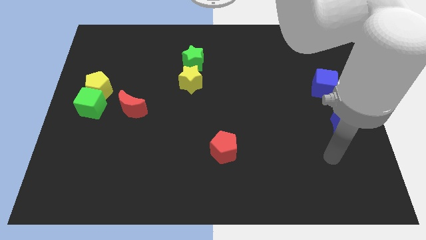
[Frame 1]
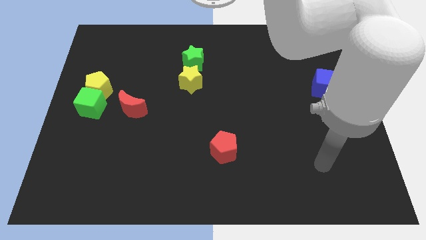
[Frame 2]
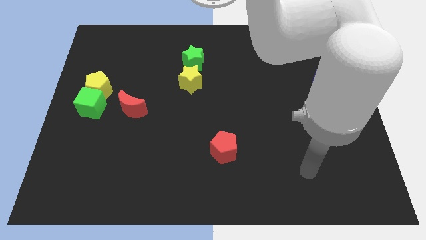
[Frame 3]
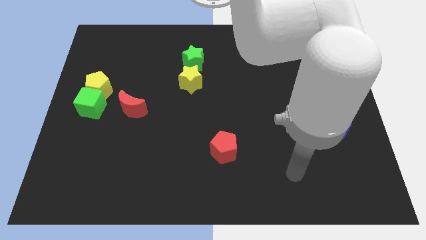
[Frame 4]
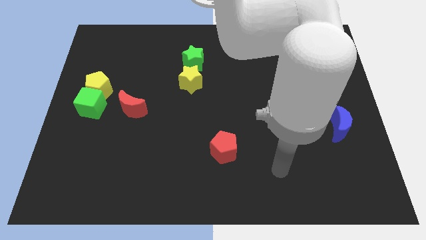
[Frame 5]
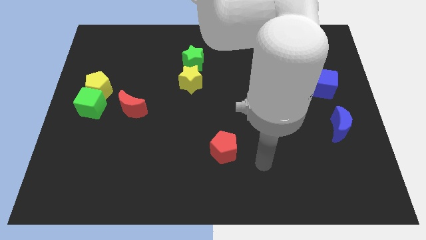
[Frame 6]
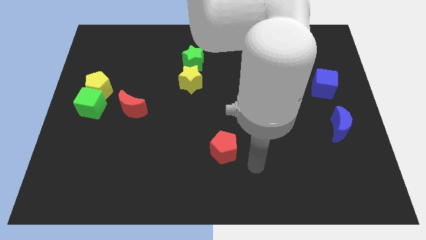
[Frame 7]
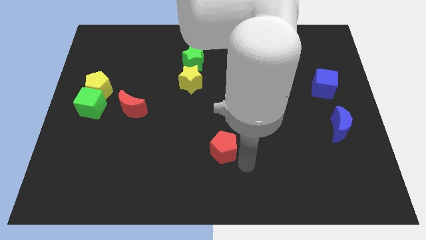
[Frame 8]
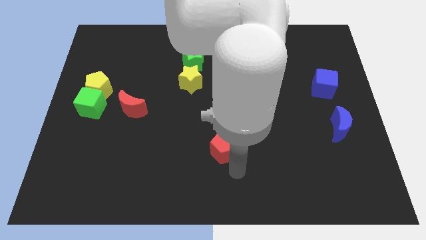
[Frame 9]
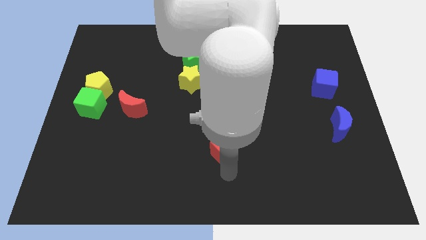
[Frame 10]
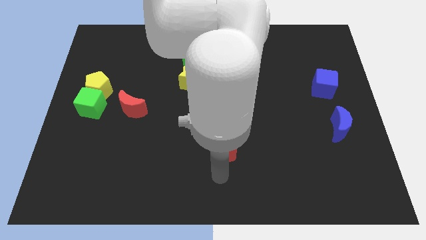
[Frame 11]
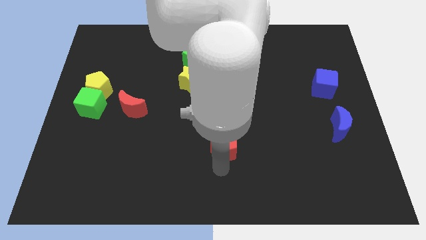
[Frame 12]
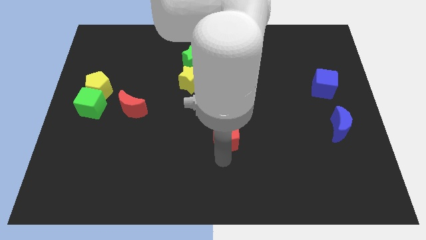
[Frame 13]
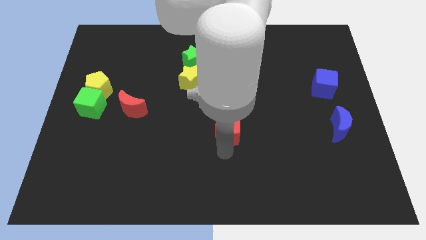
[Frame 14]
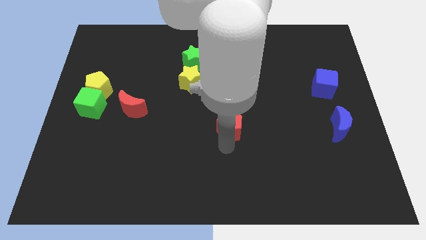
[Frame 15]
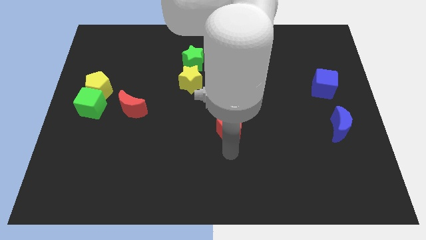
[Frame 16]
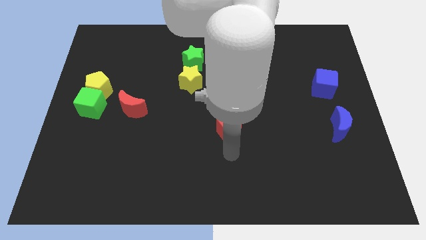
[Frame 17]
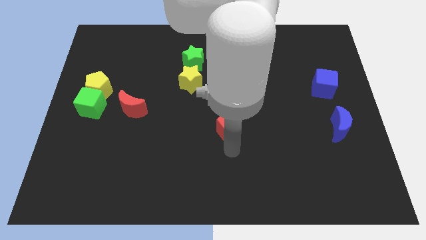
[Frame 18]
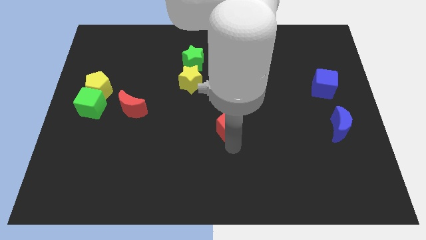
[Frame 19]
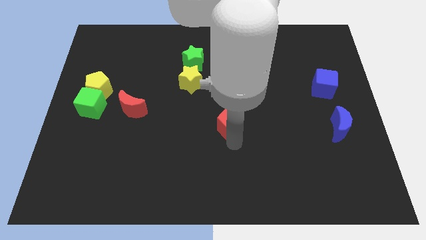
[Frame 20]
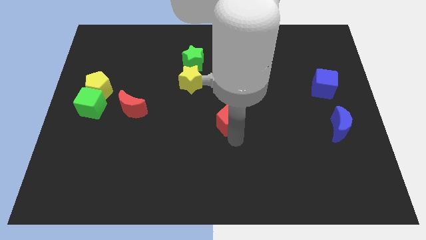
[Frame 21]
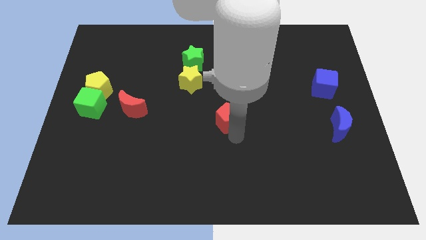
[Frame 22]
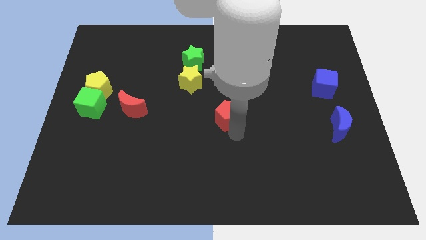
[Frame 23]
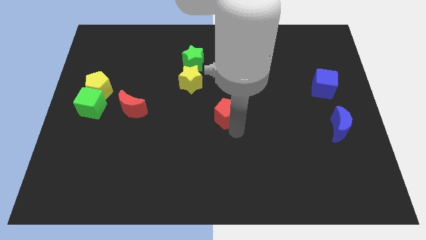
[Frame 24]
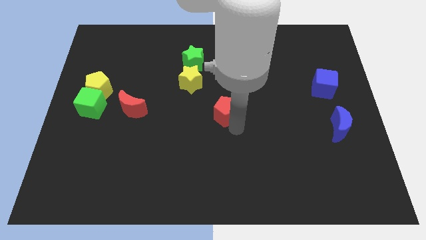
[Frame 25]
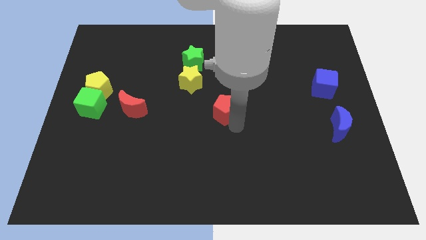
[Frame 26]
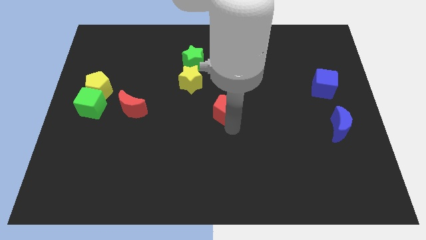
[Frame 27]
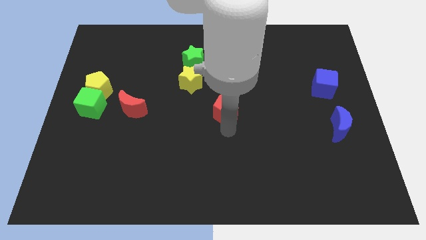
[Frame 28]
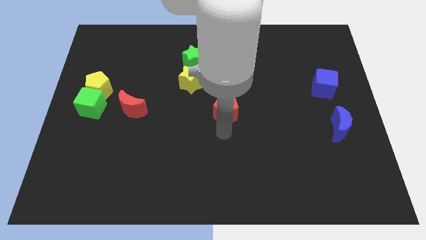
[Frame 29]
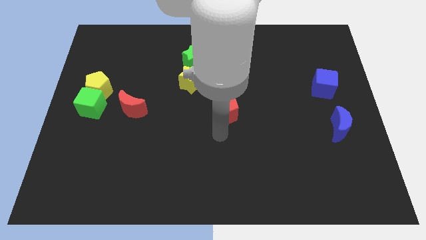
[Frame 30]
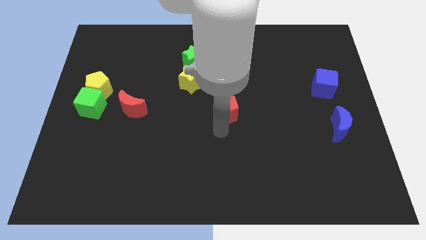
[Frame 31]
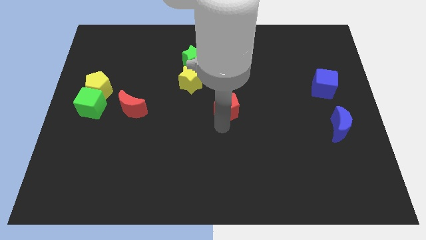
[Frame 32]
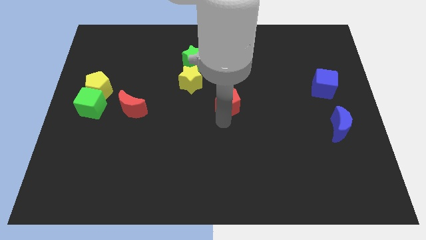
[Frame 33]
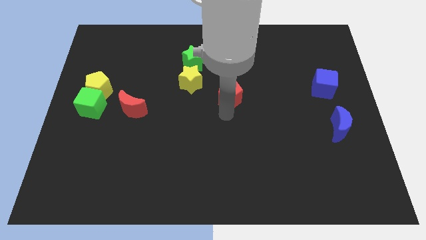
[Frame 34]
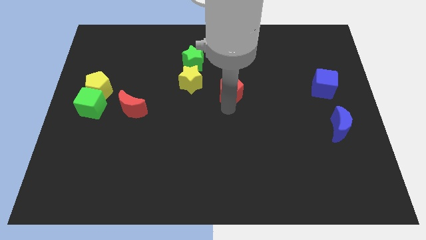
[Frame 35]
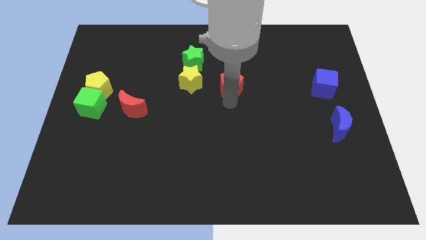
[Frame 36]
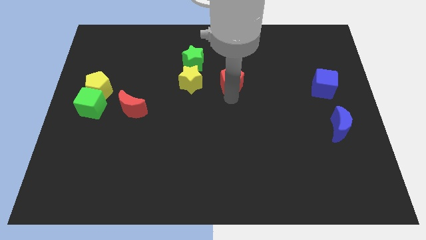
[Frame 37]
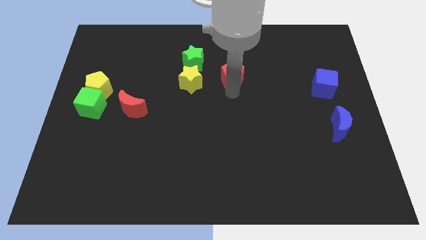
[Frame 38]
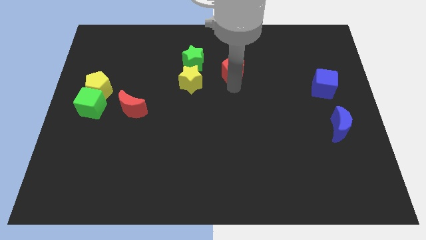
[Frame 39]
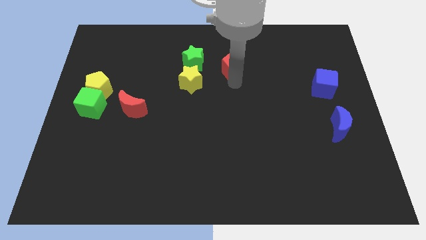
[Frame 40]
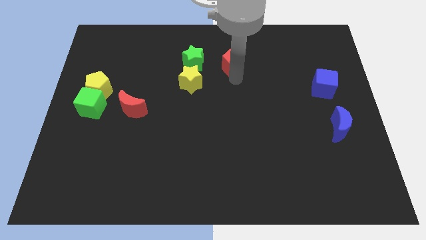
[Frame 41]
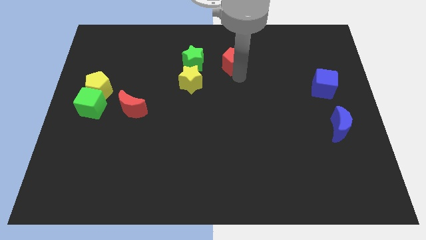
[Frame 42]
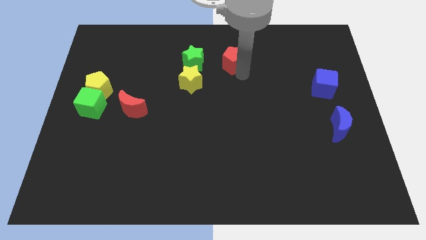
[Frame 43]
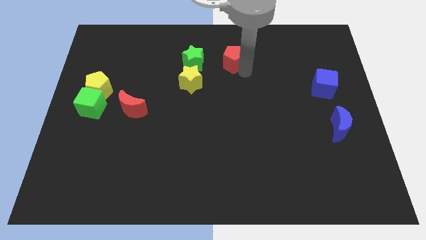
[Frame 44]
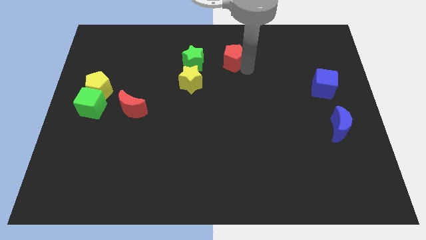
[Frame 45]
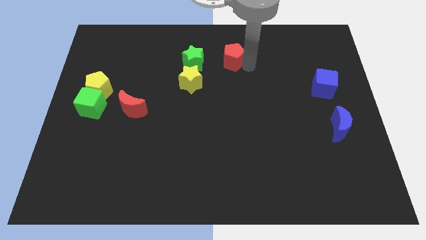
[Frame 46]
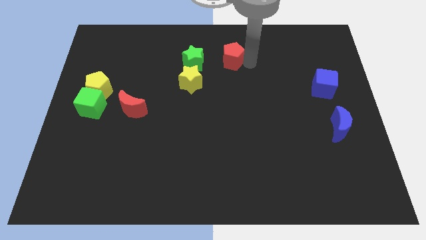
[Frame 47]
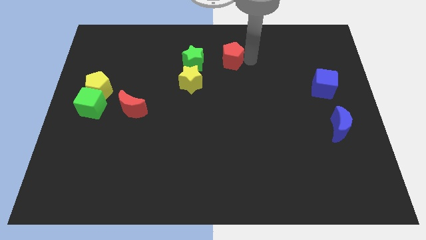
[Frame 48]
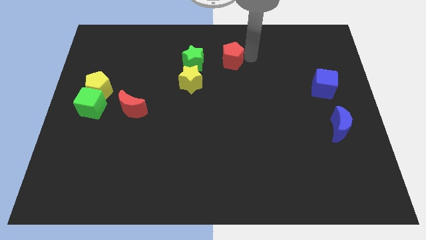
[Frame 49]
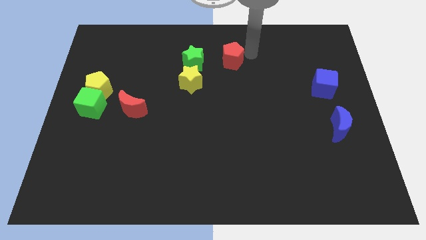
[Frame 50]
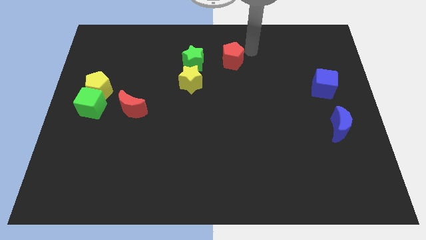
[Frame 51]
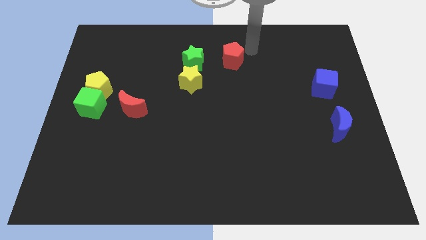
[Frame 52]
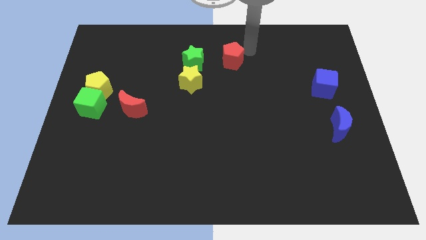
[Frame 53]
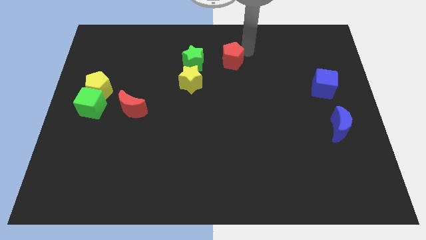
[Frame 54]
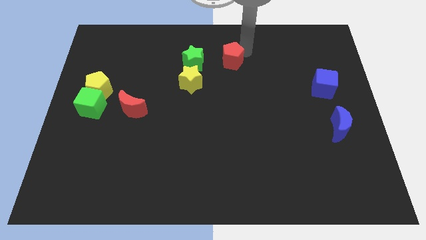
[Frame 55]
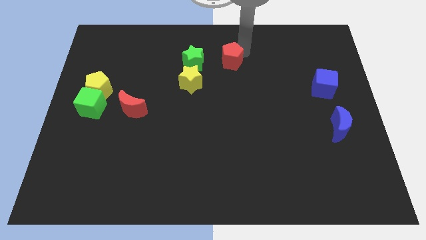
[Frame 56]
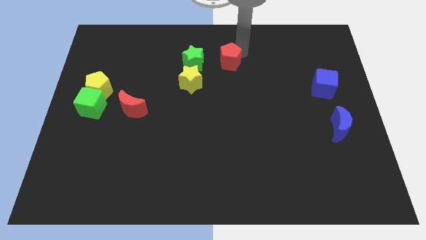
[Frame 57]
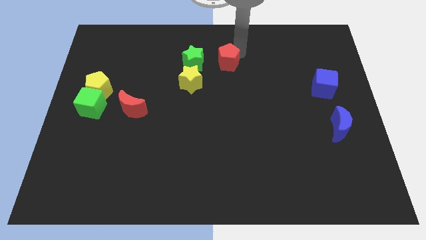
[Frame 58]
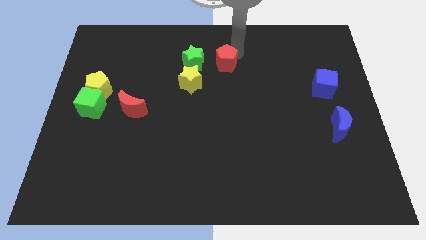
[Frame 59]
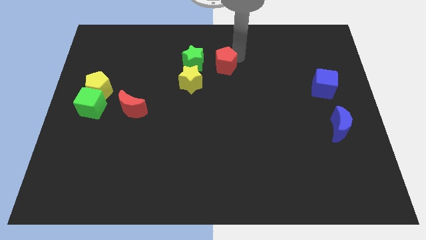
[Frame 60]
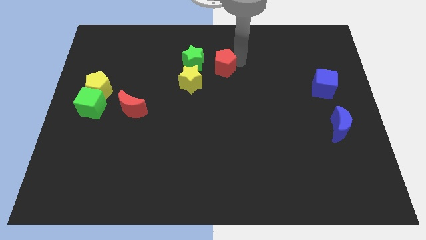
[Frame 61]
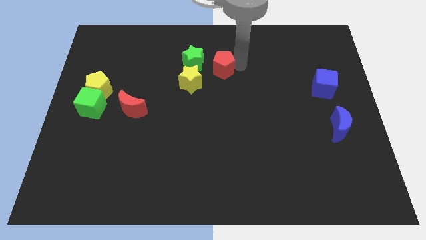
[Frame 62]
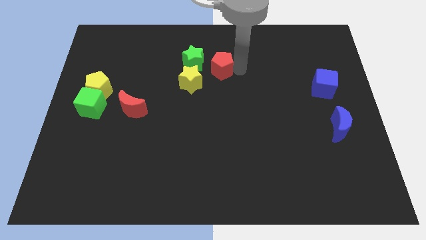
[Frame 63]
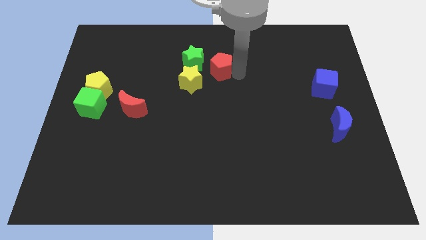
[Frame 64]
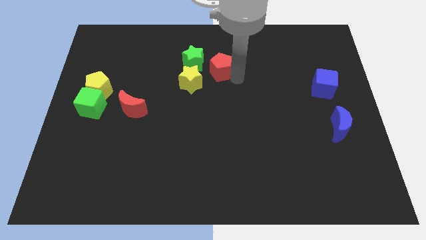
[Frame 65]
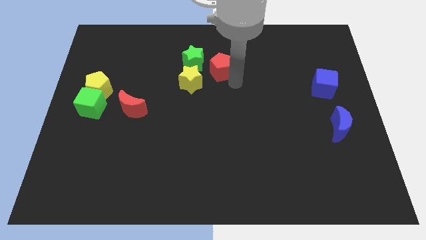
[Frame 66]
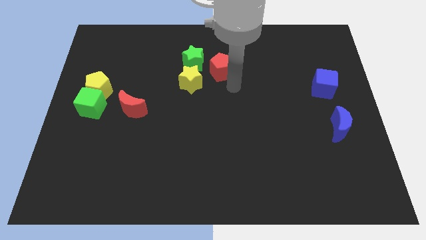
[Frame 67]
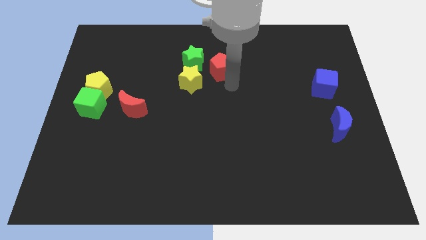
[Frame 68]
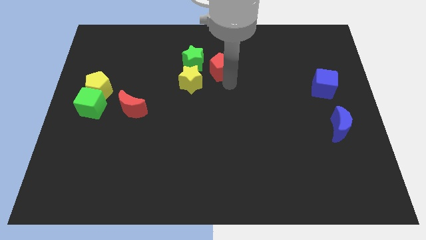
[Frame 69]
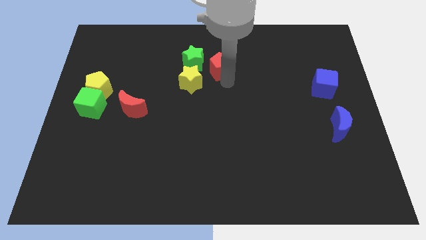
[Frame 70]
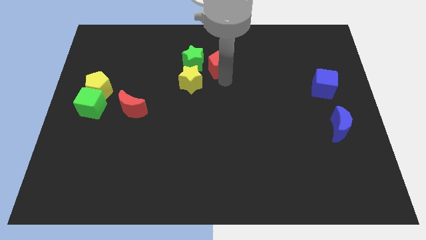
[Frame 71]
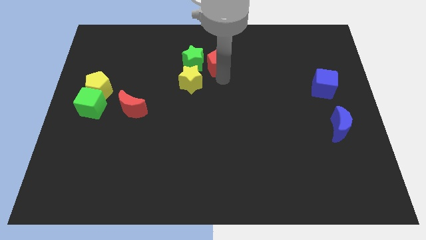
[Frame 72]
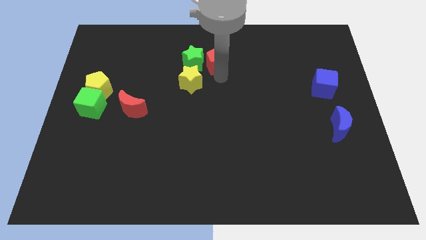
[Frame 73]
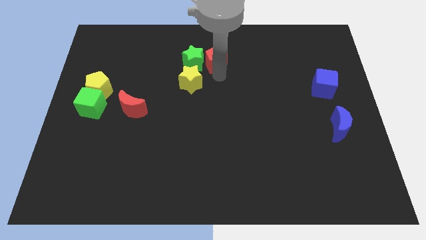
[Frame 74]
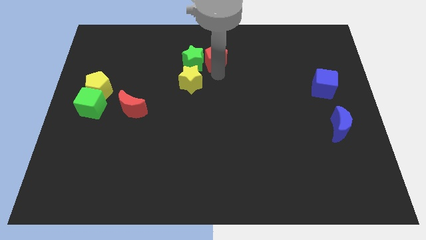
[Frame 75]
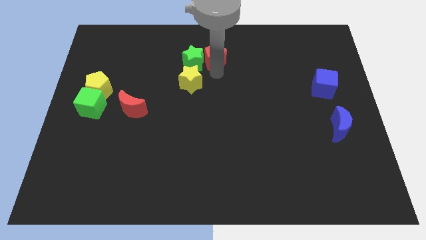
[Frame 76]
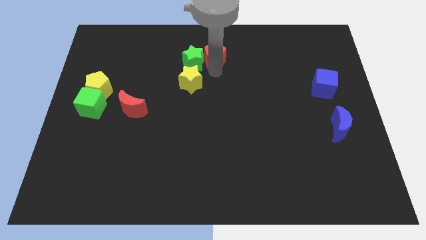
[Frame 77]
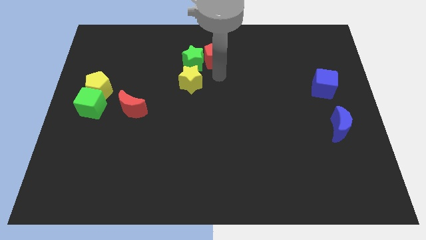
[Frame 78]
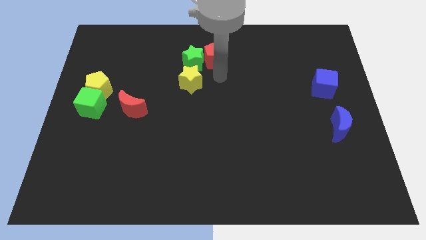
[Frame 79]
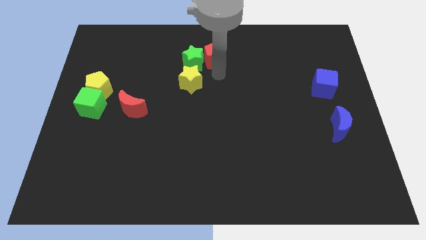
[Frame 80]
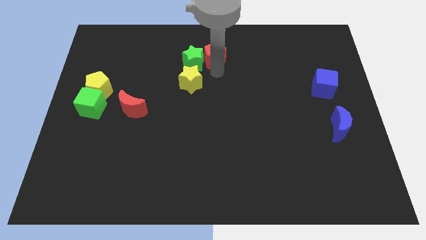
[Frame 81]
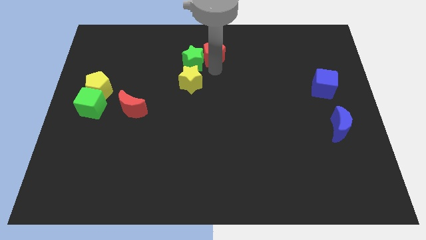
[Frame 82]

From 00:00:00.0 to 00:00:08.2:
move the red pentagon to the top
